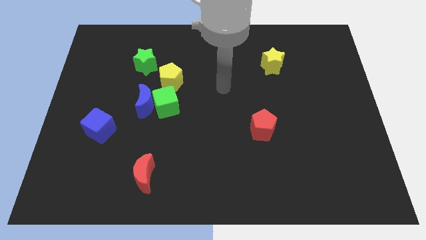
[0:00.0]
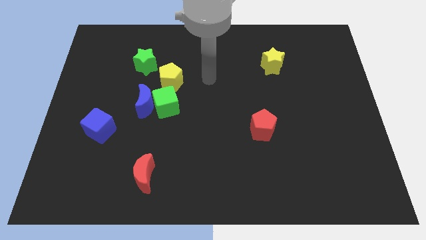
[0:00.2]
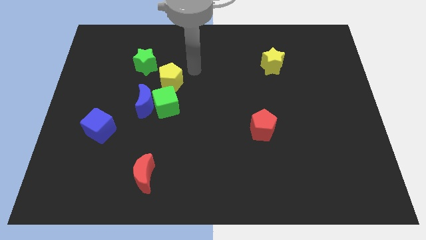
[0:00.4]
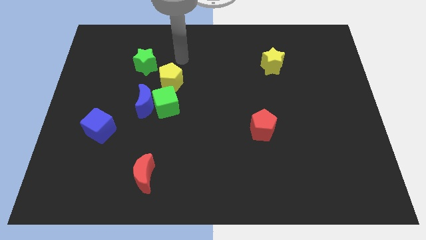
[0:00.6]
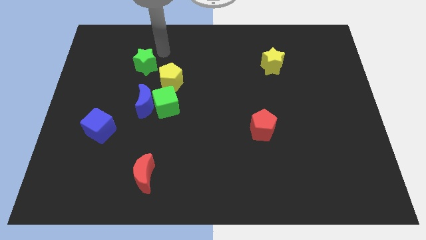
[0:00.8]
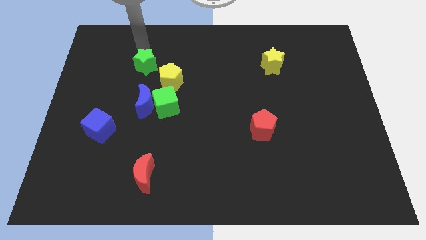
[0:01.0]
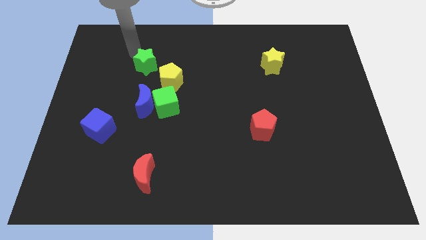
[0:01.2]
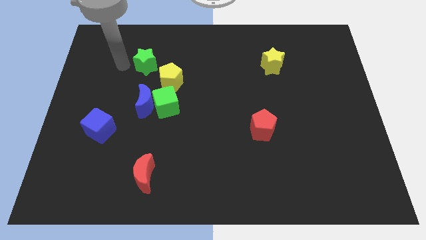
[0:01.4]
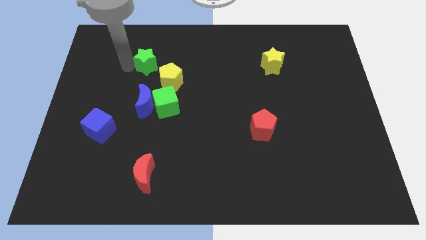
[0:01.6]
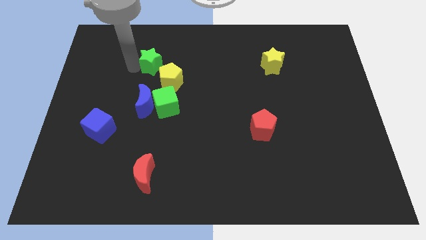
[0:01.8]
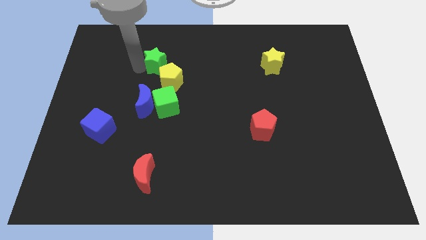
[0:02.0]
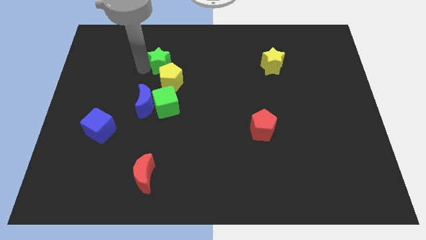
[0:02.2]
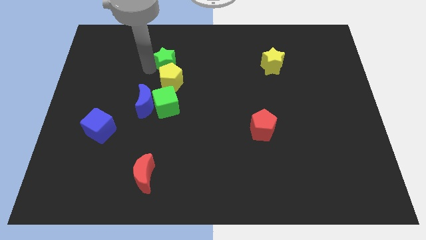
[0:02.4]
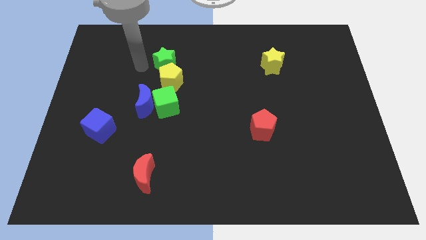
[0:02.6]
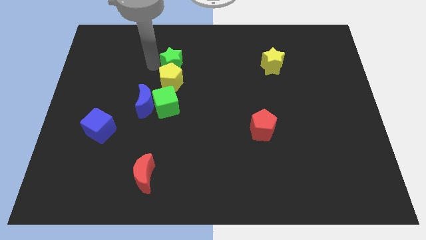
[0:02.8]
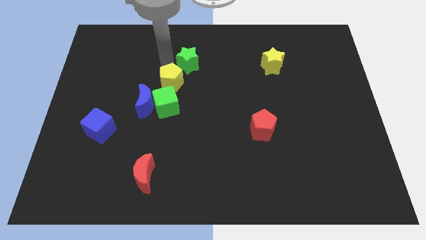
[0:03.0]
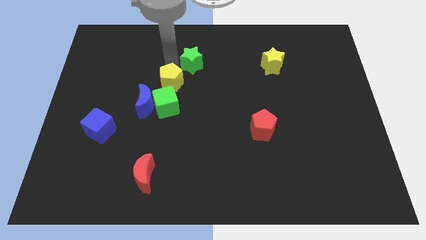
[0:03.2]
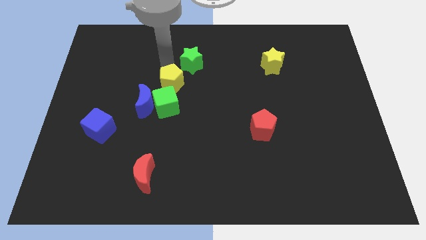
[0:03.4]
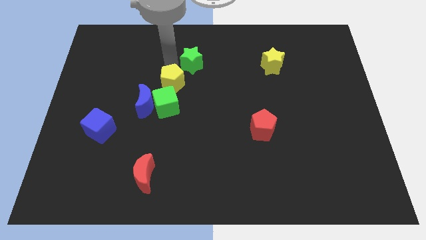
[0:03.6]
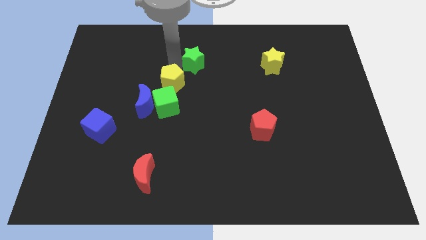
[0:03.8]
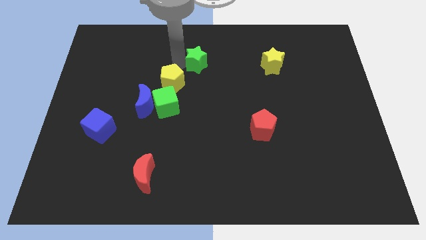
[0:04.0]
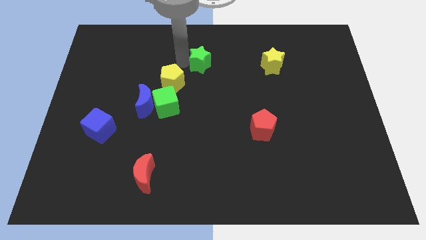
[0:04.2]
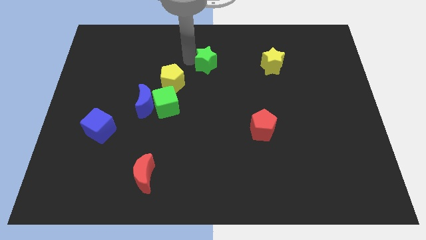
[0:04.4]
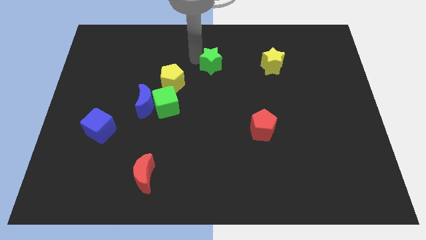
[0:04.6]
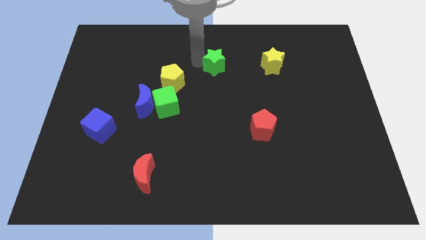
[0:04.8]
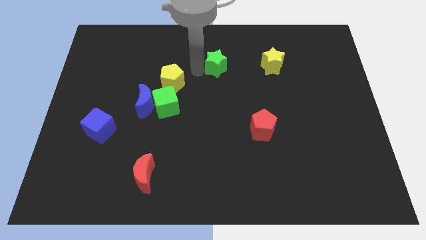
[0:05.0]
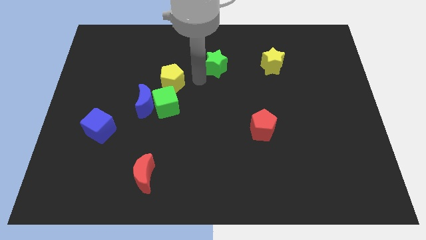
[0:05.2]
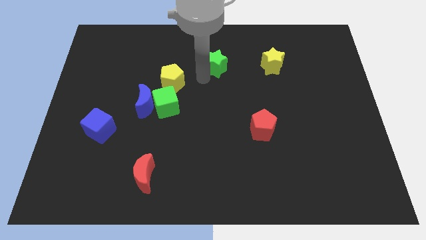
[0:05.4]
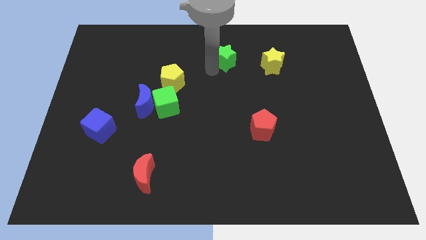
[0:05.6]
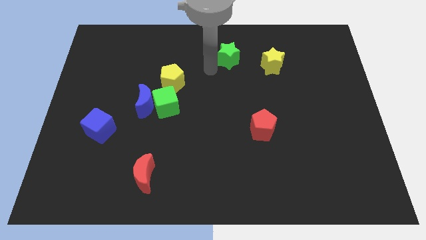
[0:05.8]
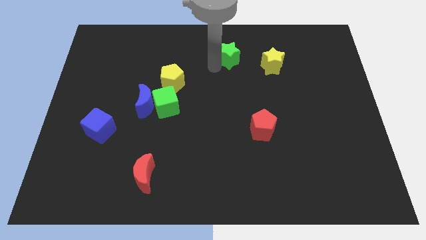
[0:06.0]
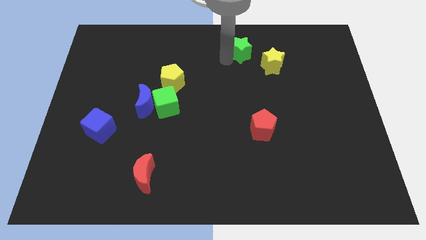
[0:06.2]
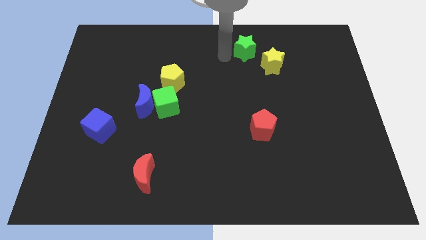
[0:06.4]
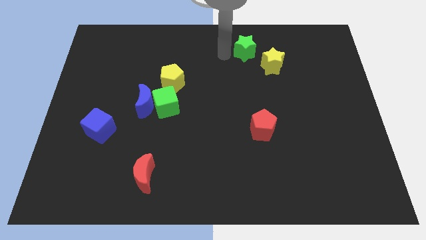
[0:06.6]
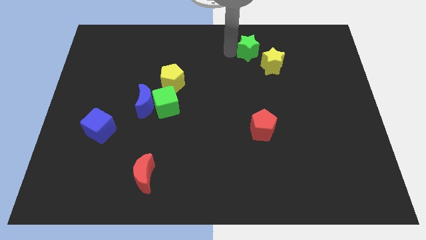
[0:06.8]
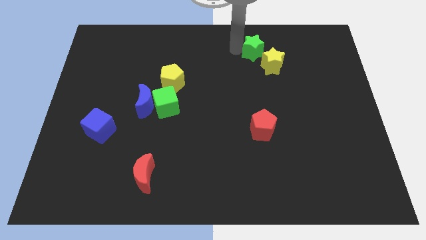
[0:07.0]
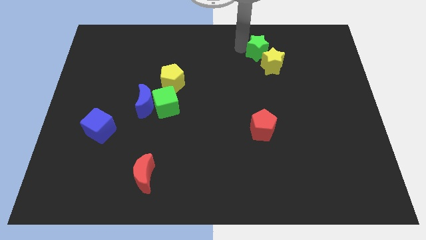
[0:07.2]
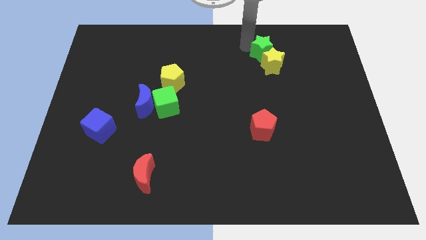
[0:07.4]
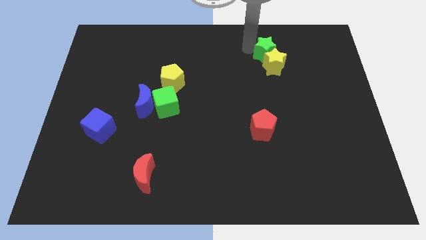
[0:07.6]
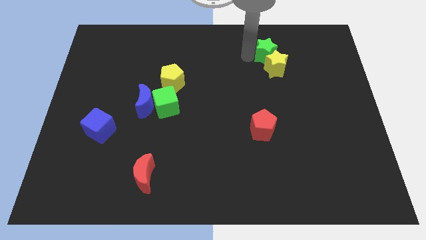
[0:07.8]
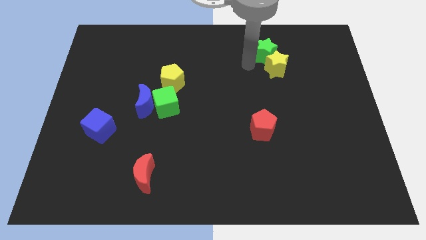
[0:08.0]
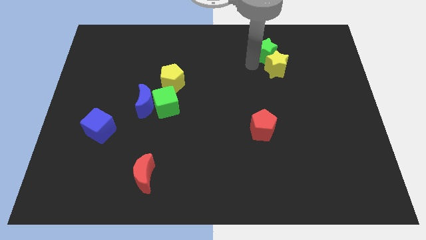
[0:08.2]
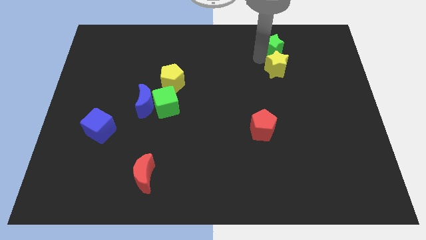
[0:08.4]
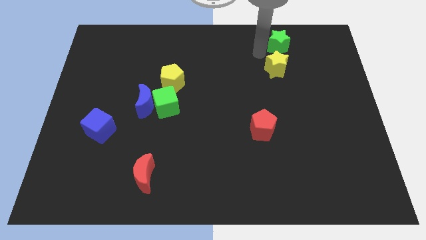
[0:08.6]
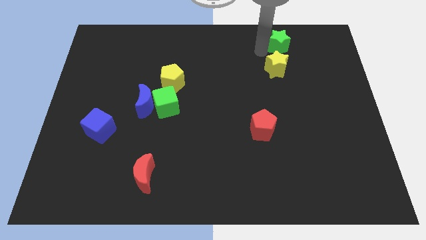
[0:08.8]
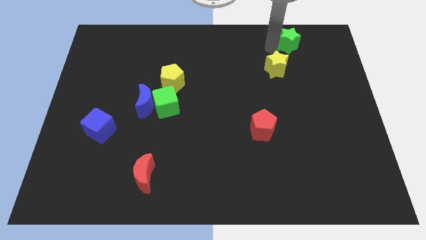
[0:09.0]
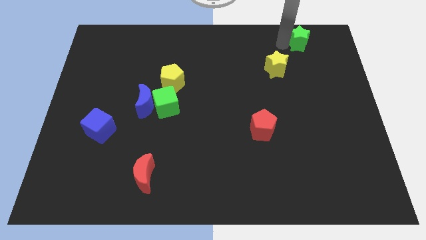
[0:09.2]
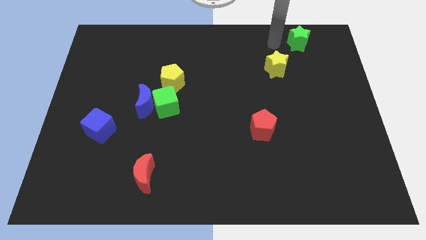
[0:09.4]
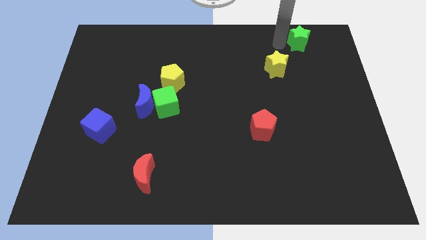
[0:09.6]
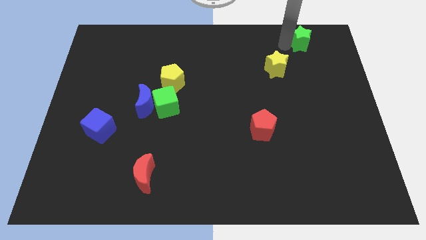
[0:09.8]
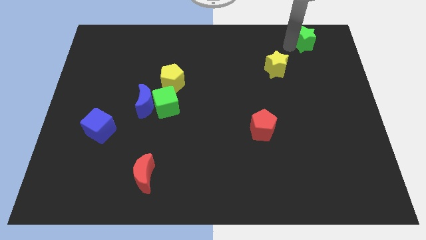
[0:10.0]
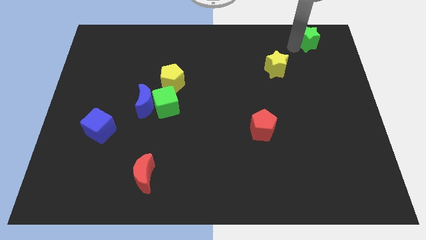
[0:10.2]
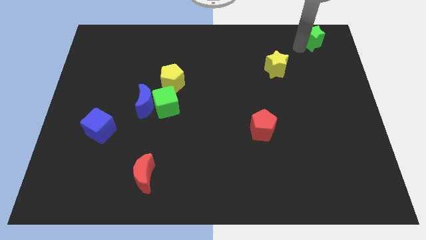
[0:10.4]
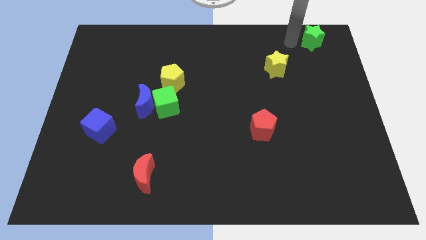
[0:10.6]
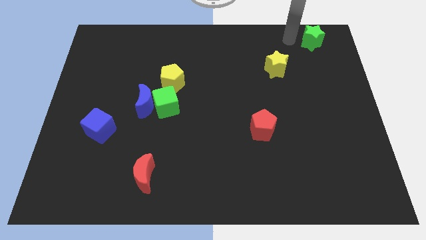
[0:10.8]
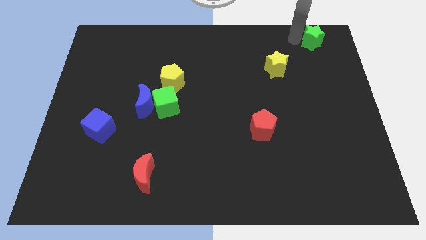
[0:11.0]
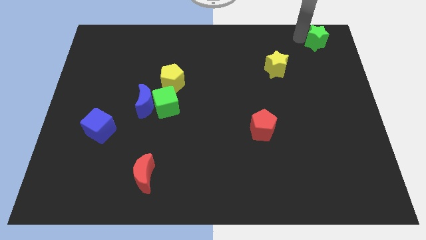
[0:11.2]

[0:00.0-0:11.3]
push the green star to the top right
